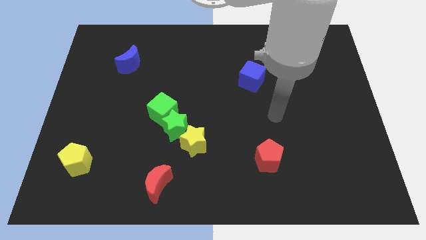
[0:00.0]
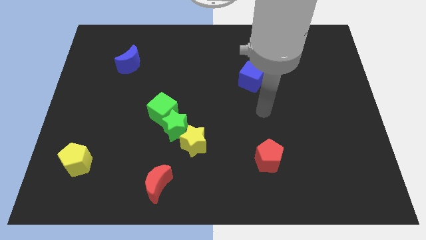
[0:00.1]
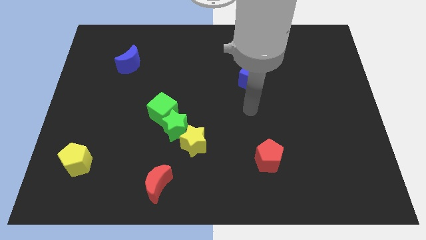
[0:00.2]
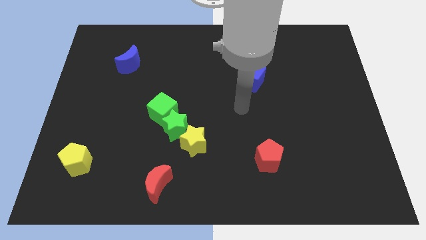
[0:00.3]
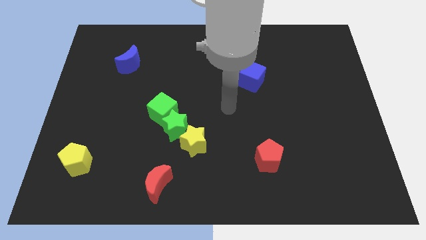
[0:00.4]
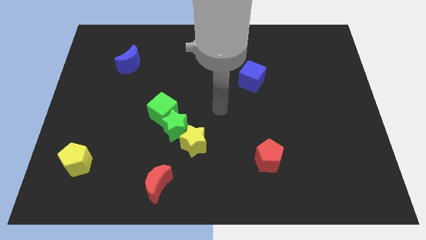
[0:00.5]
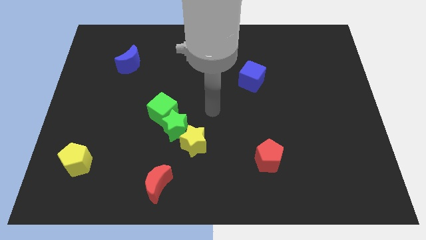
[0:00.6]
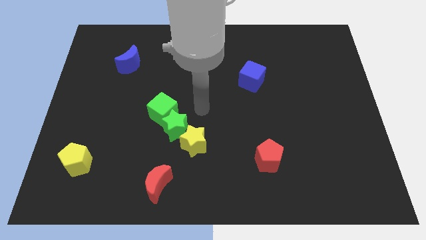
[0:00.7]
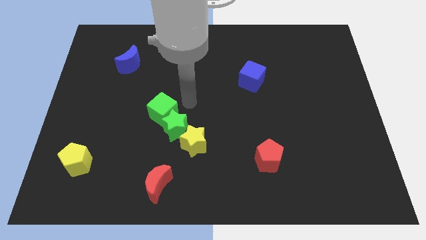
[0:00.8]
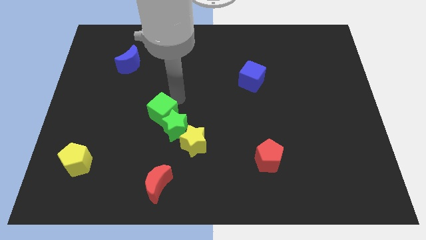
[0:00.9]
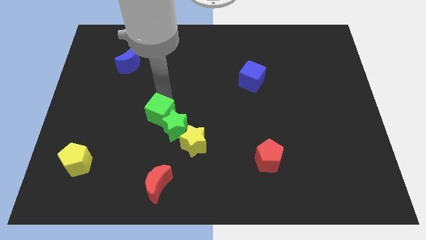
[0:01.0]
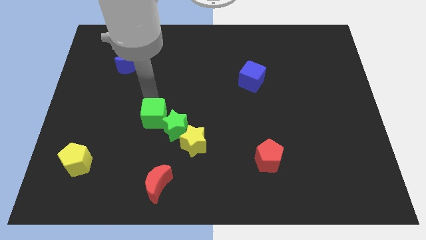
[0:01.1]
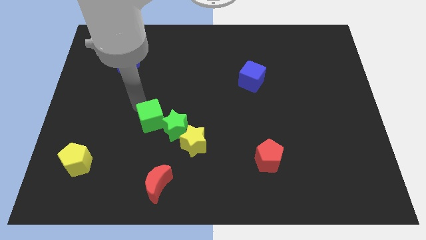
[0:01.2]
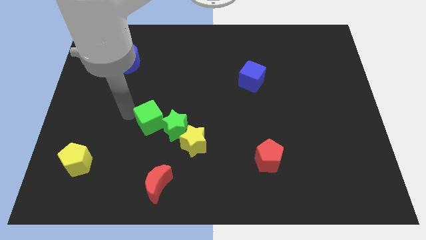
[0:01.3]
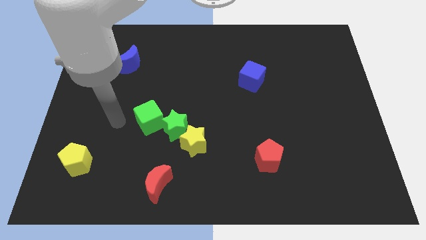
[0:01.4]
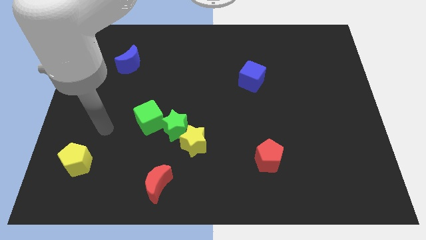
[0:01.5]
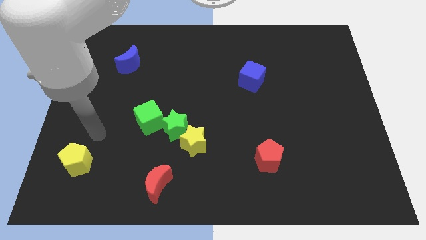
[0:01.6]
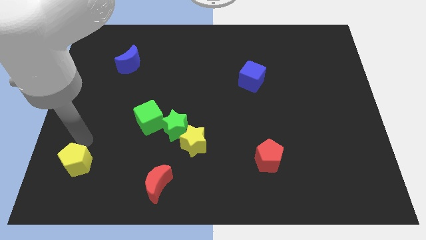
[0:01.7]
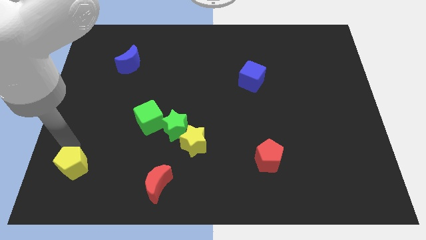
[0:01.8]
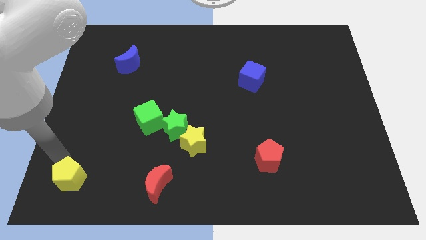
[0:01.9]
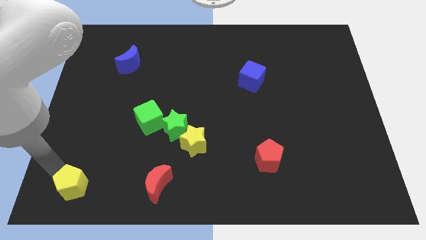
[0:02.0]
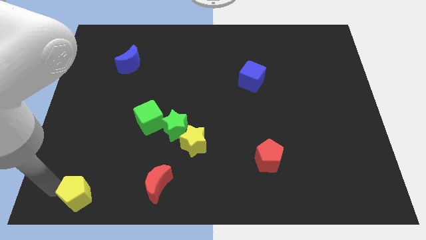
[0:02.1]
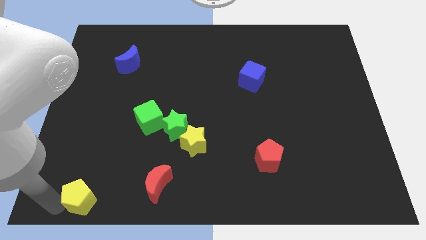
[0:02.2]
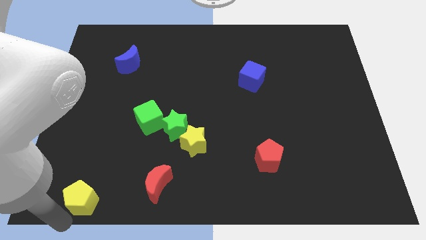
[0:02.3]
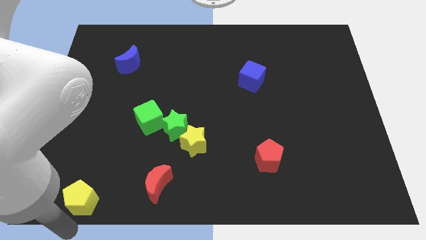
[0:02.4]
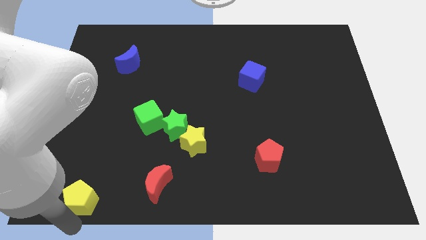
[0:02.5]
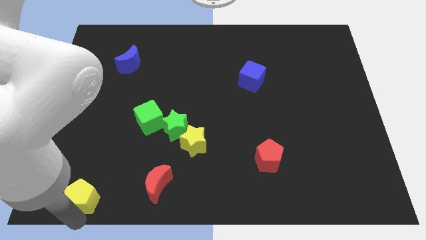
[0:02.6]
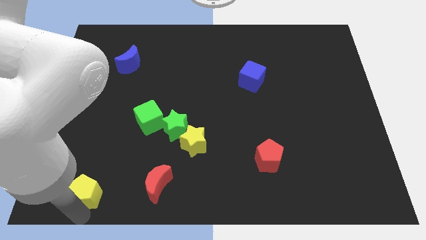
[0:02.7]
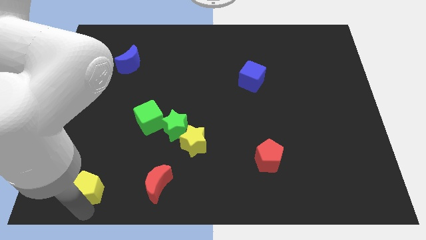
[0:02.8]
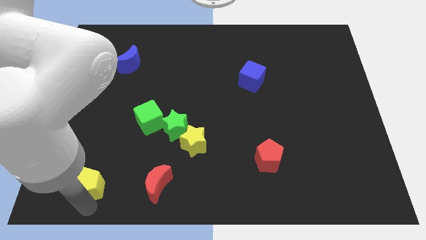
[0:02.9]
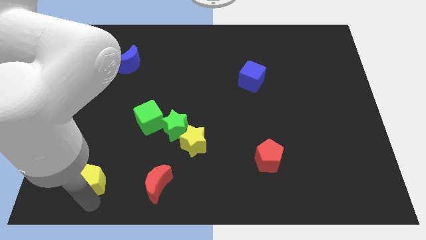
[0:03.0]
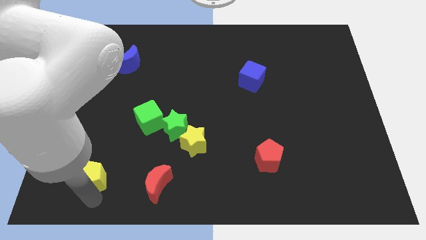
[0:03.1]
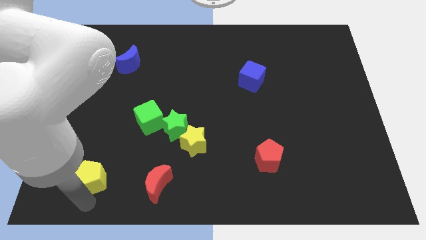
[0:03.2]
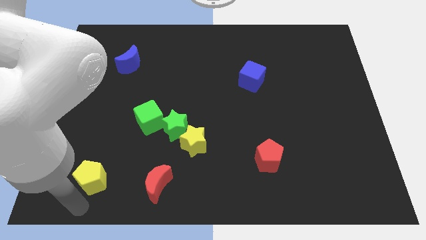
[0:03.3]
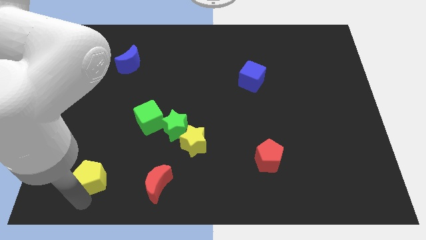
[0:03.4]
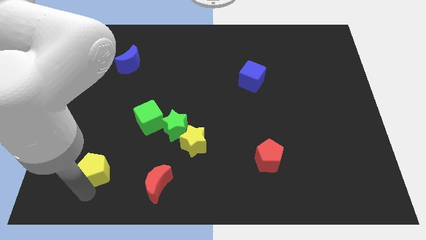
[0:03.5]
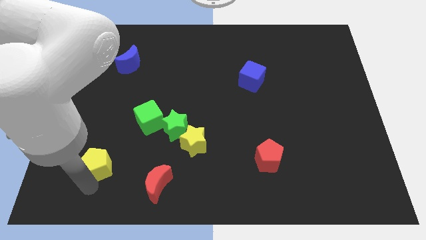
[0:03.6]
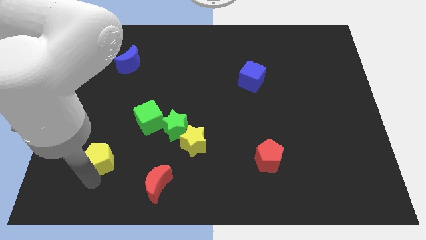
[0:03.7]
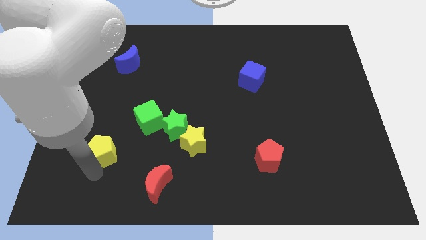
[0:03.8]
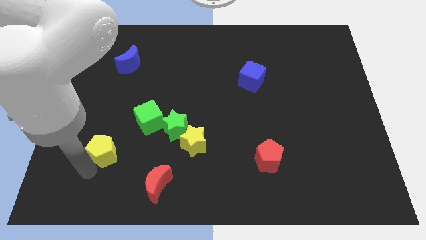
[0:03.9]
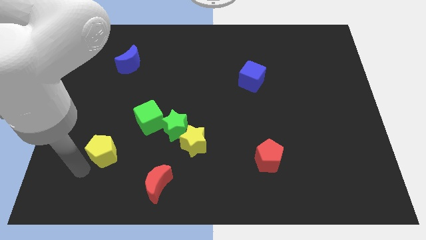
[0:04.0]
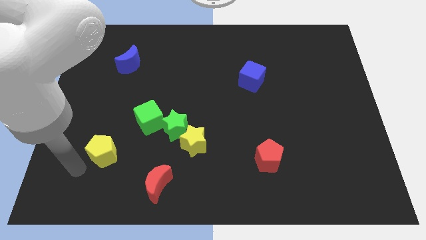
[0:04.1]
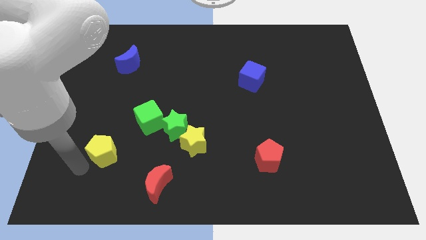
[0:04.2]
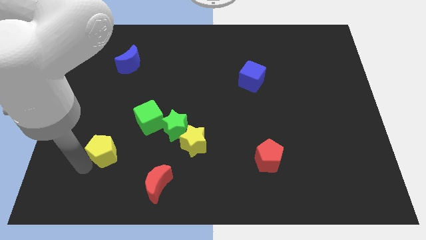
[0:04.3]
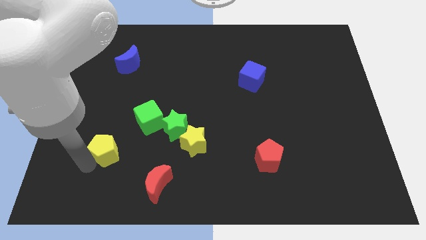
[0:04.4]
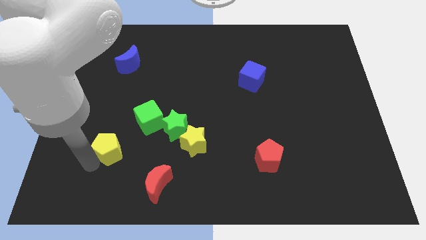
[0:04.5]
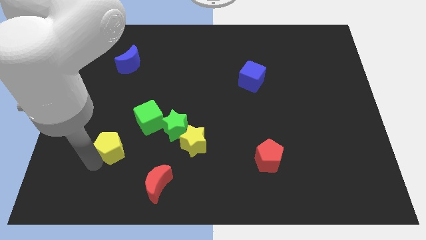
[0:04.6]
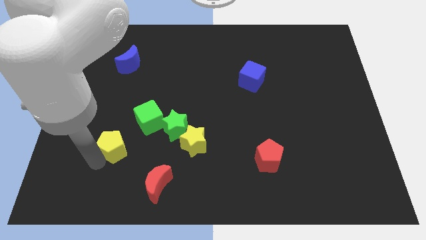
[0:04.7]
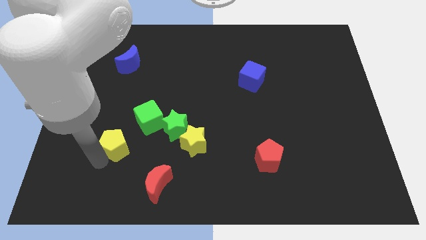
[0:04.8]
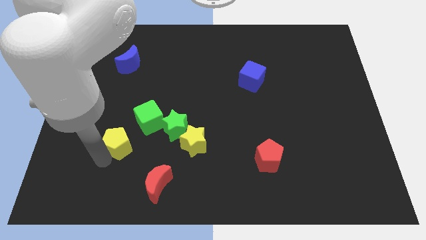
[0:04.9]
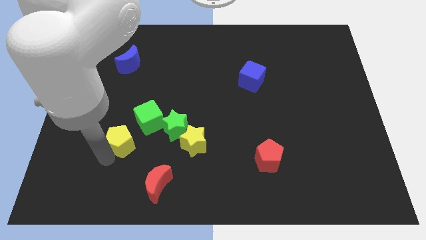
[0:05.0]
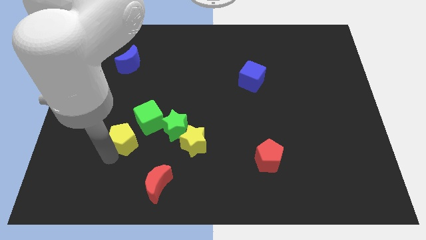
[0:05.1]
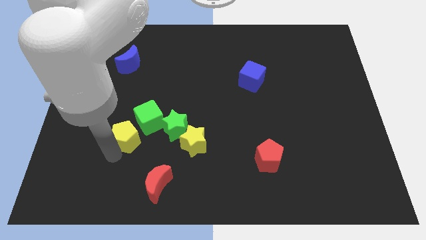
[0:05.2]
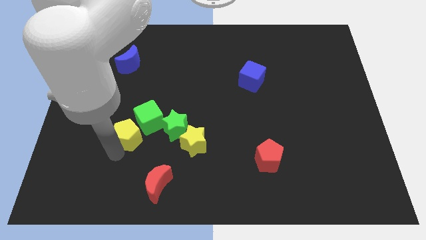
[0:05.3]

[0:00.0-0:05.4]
slide the yellow pentagon next to the green cube

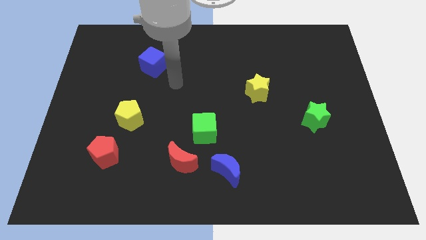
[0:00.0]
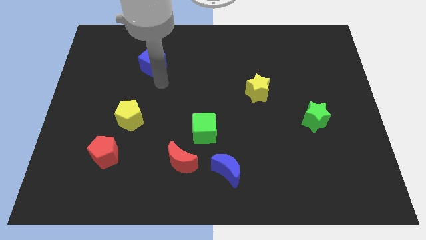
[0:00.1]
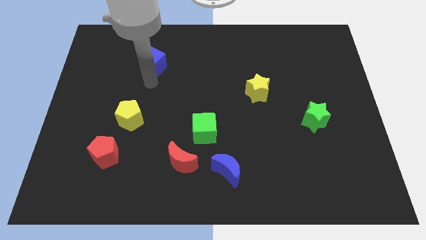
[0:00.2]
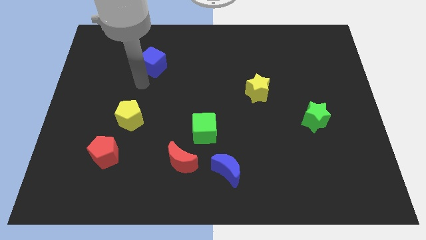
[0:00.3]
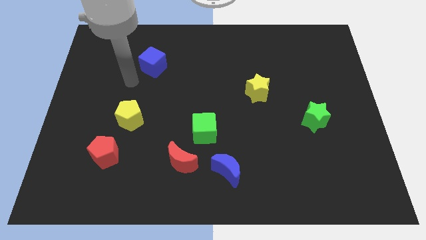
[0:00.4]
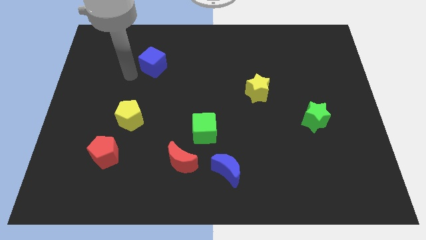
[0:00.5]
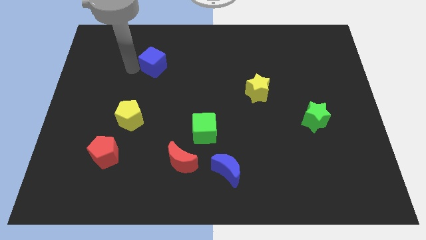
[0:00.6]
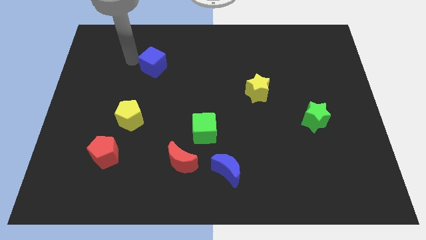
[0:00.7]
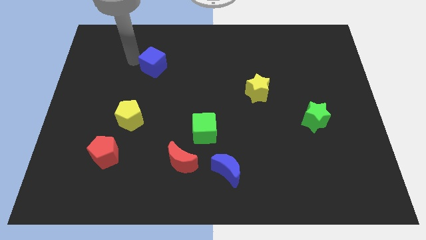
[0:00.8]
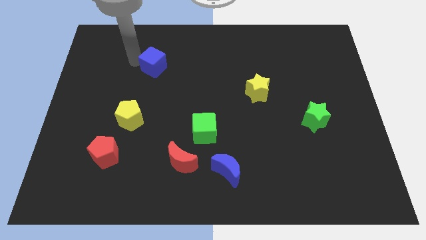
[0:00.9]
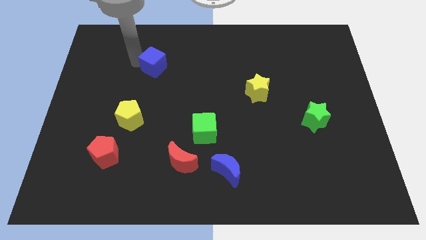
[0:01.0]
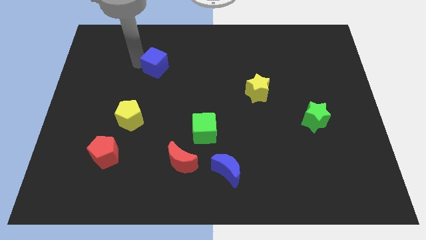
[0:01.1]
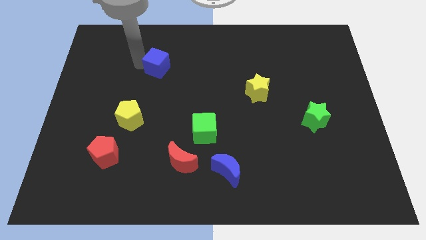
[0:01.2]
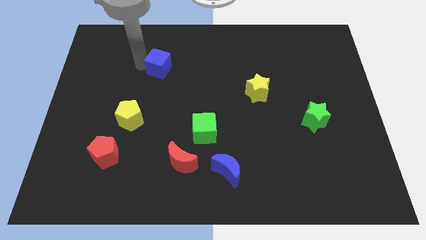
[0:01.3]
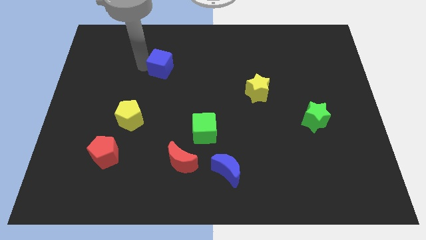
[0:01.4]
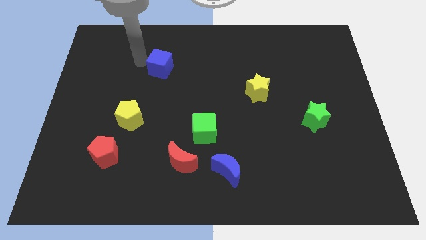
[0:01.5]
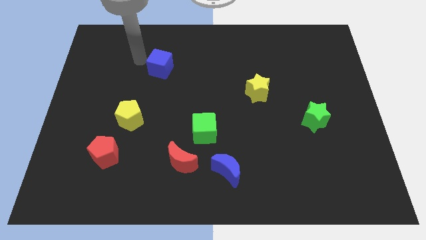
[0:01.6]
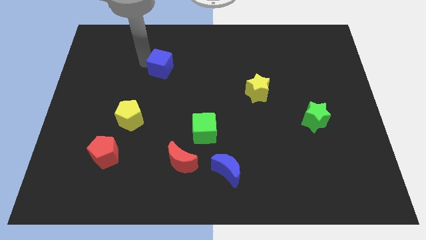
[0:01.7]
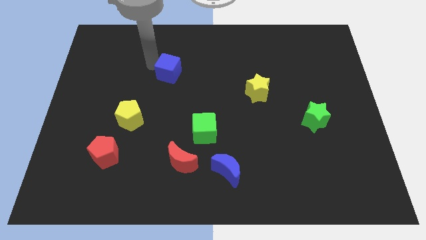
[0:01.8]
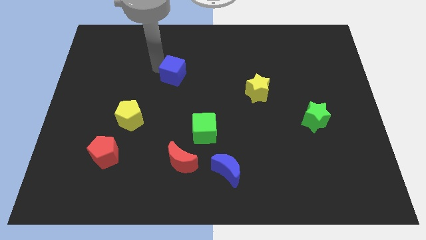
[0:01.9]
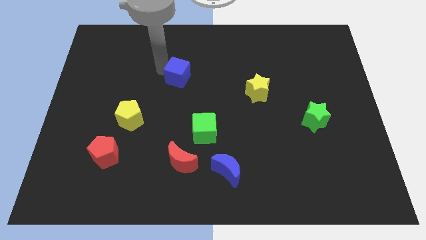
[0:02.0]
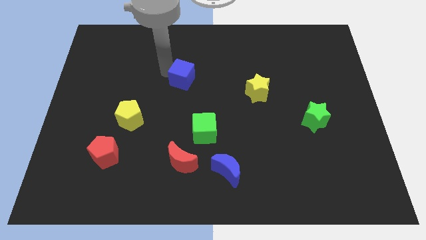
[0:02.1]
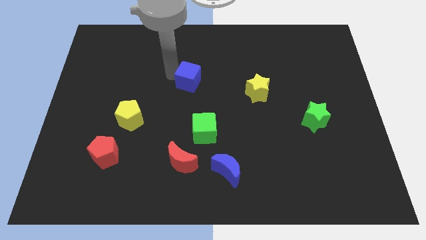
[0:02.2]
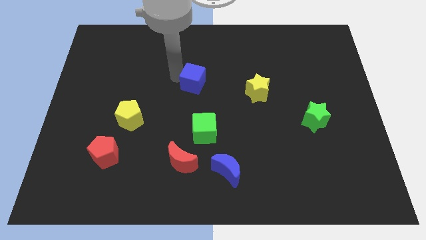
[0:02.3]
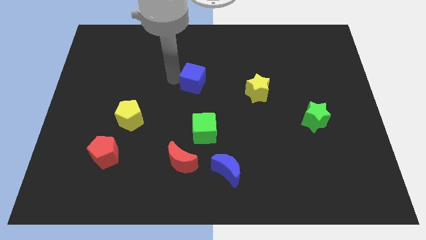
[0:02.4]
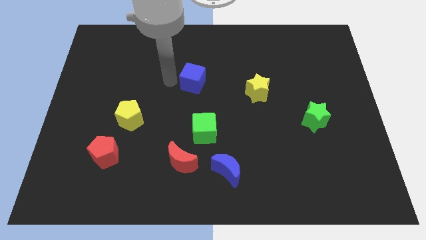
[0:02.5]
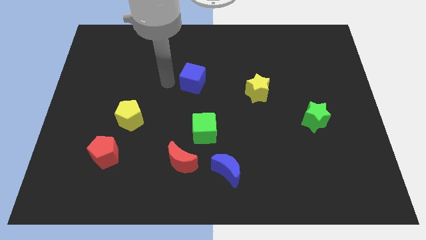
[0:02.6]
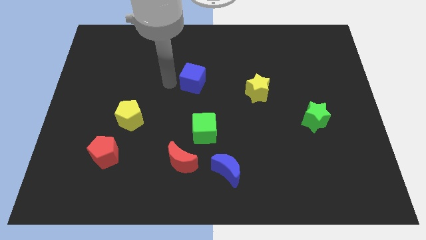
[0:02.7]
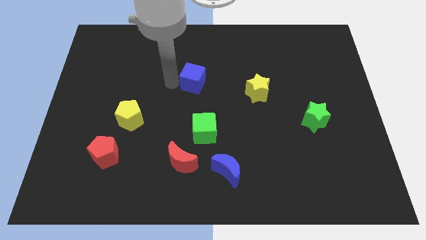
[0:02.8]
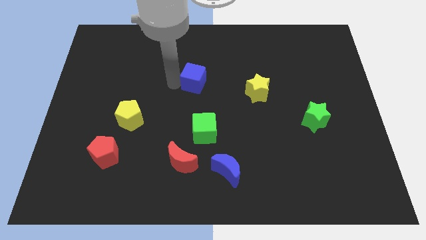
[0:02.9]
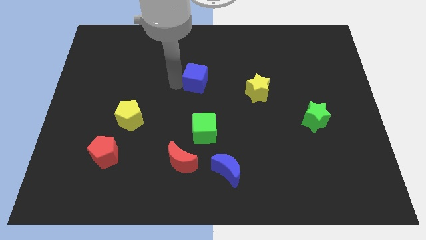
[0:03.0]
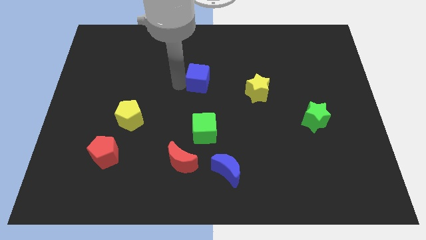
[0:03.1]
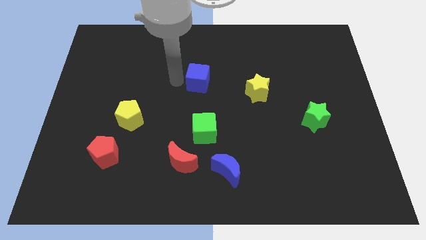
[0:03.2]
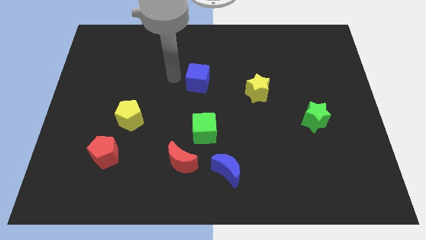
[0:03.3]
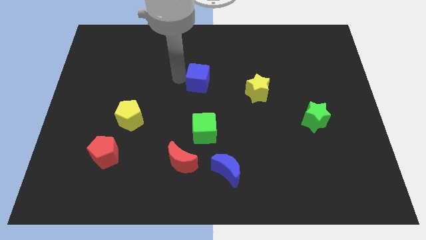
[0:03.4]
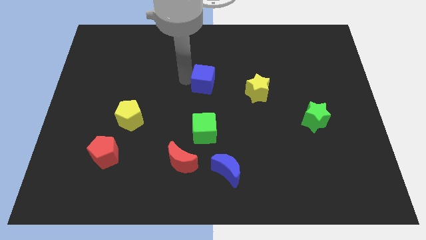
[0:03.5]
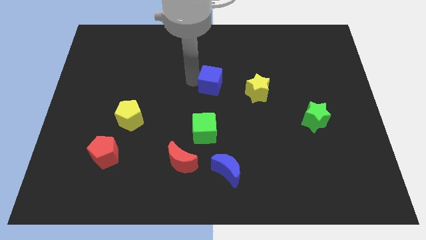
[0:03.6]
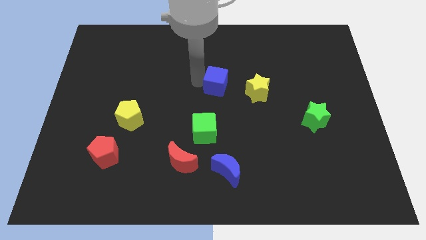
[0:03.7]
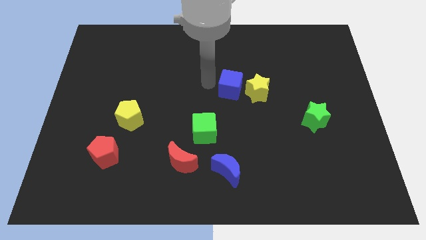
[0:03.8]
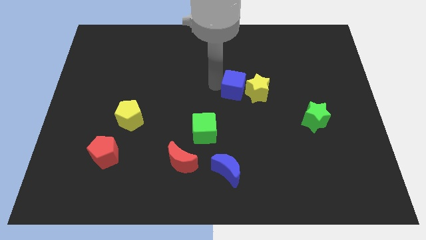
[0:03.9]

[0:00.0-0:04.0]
push the blue cube towards the yellow star
